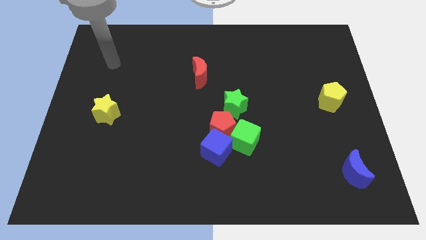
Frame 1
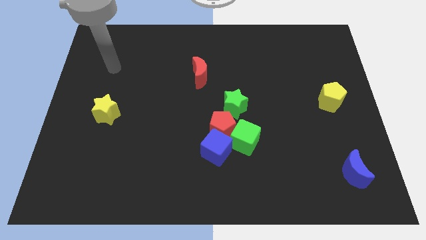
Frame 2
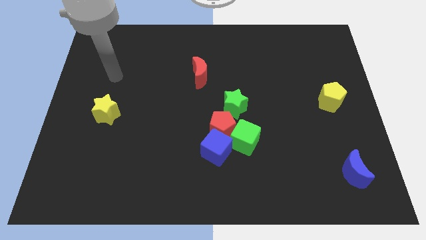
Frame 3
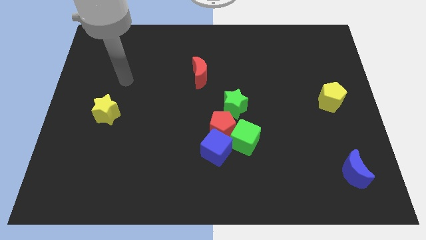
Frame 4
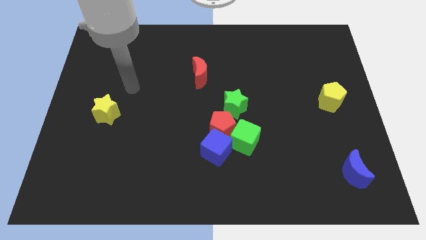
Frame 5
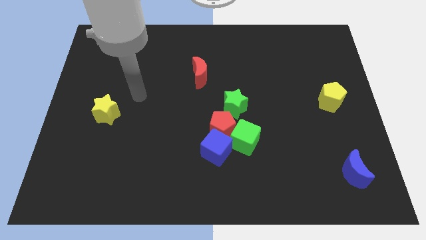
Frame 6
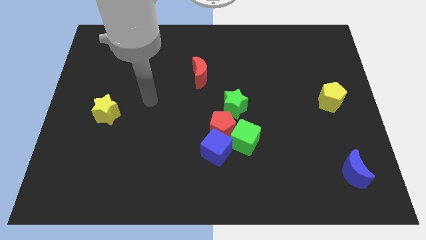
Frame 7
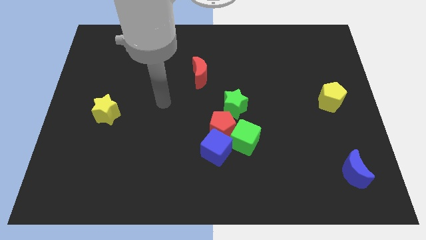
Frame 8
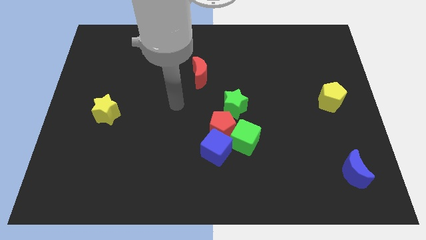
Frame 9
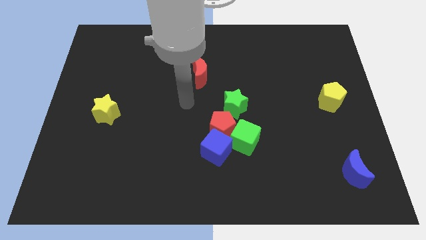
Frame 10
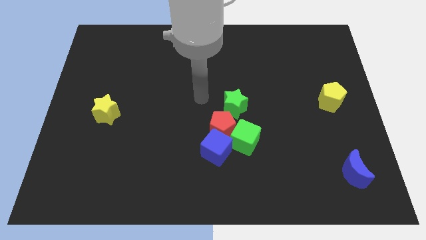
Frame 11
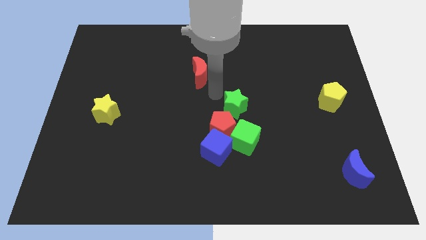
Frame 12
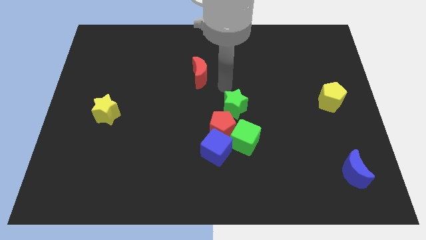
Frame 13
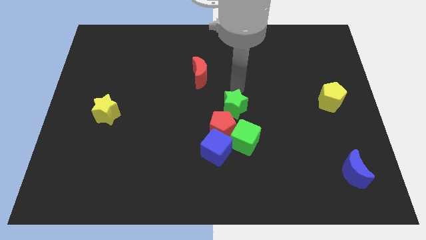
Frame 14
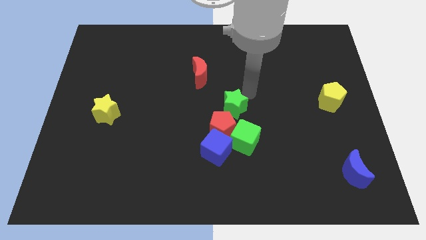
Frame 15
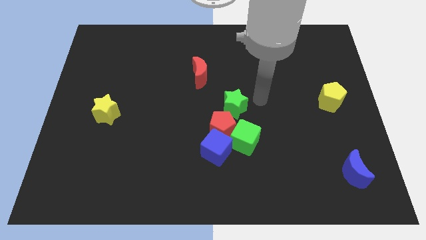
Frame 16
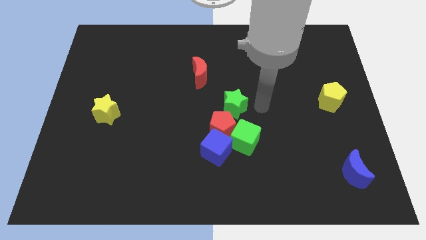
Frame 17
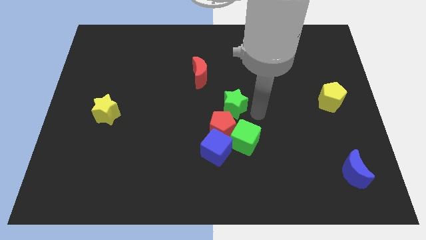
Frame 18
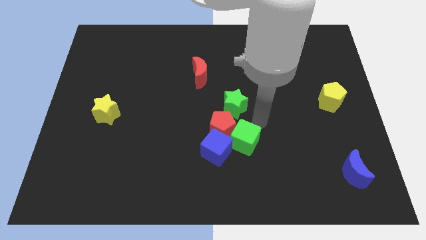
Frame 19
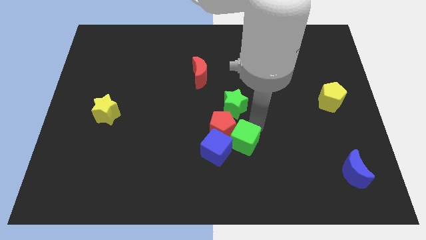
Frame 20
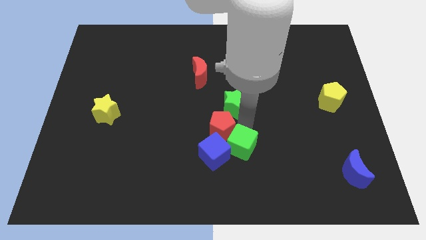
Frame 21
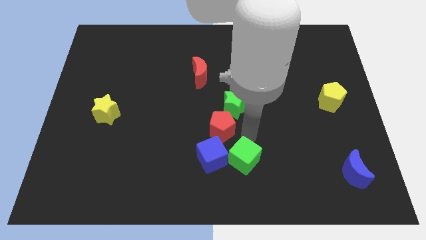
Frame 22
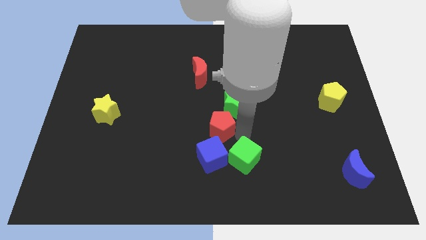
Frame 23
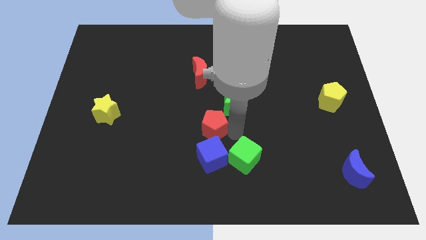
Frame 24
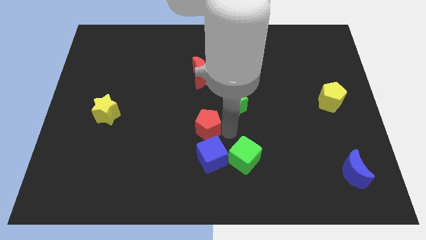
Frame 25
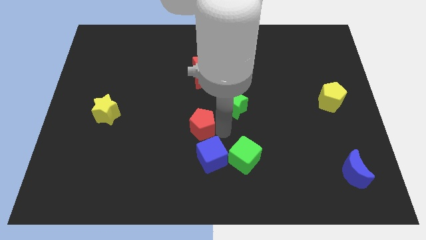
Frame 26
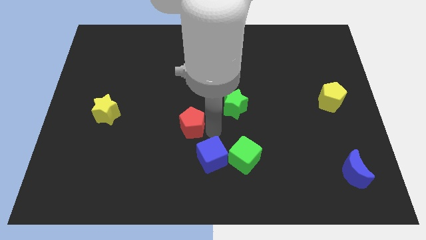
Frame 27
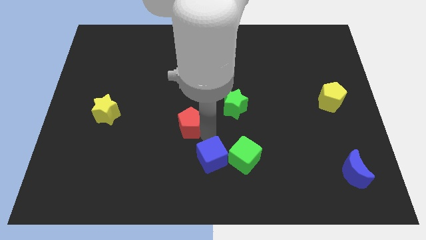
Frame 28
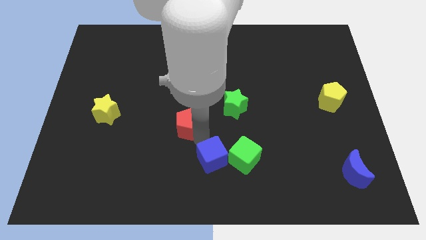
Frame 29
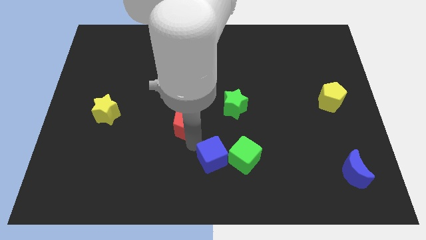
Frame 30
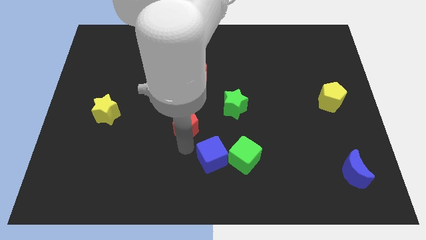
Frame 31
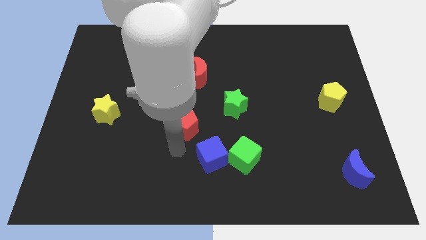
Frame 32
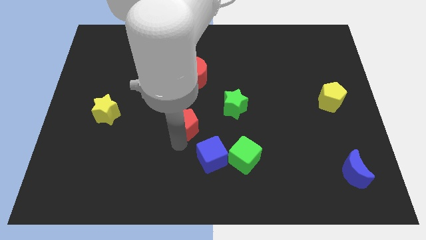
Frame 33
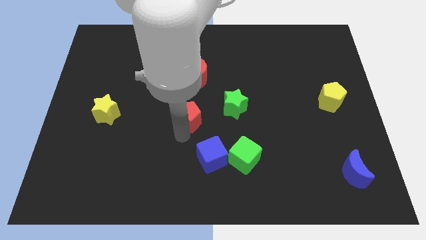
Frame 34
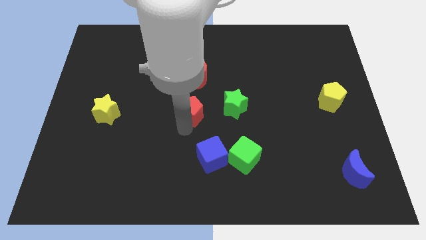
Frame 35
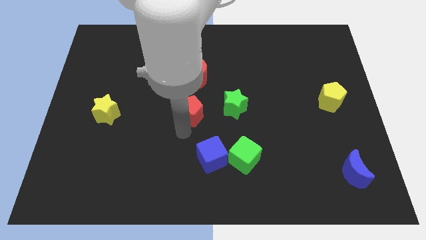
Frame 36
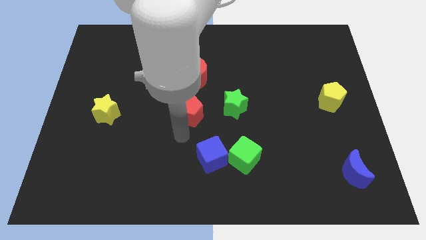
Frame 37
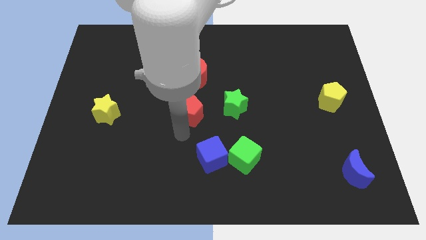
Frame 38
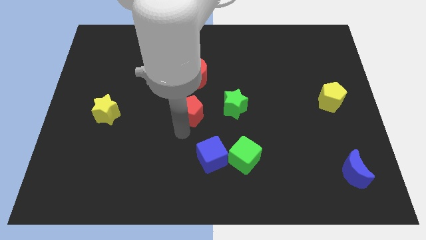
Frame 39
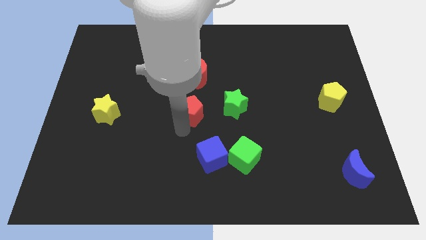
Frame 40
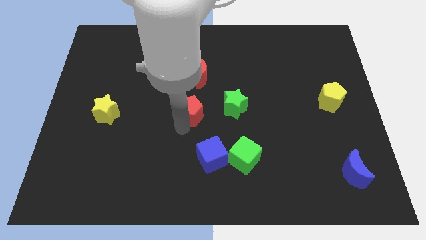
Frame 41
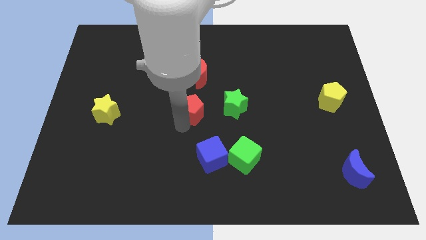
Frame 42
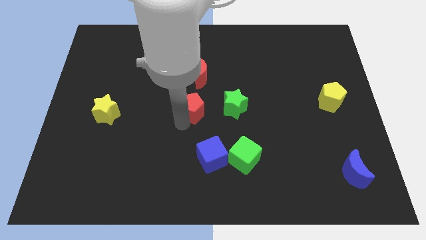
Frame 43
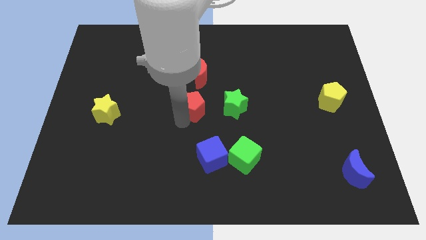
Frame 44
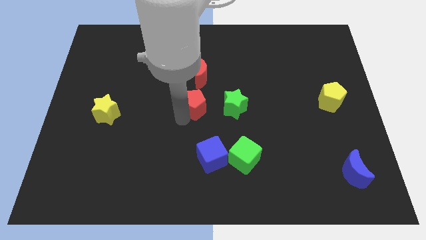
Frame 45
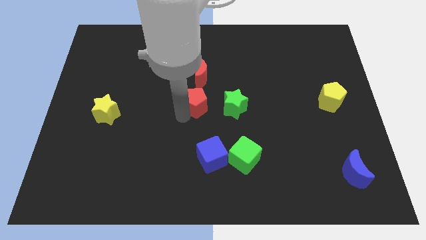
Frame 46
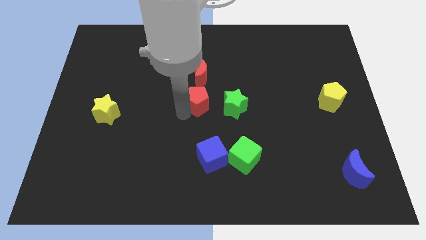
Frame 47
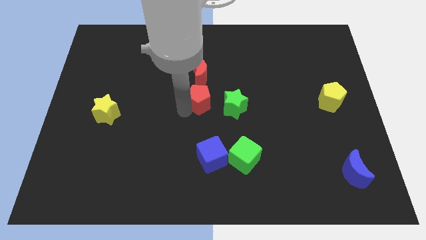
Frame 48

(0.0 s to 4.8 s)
push the red pentagon somewhat upwards

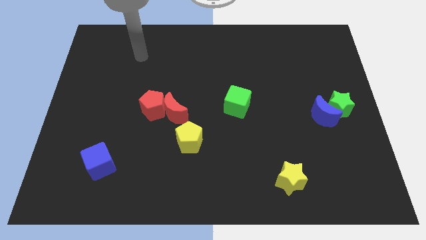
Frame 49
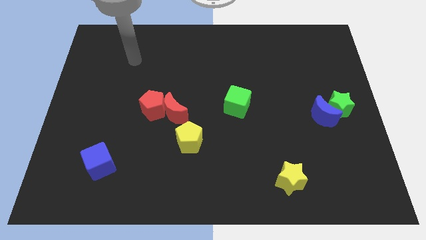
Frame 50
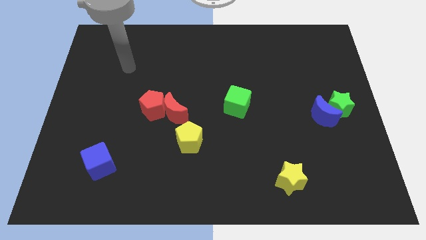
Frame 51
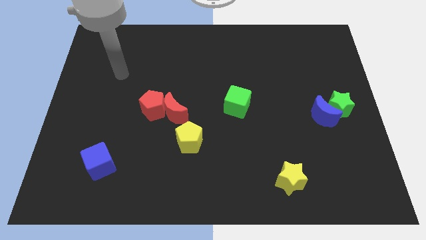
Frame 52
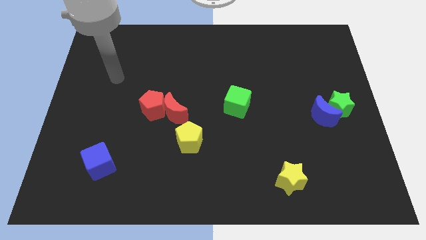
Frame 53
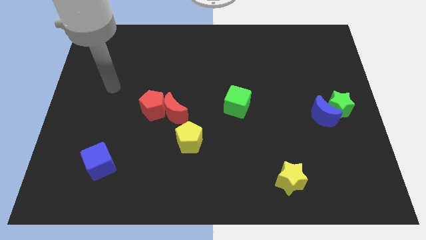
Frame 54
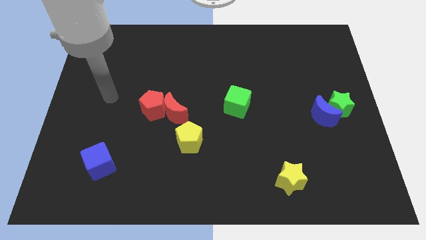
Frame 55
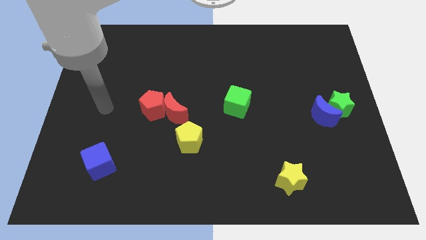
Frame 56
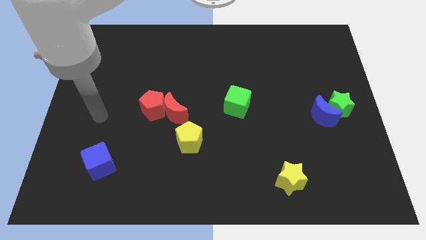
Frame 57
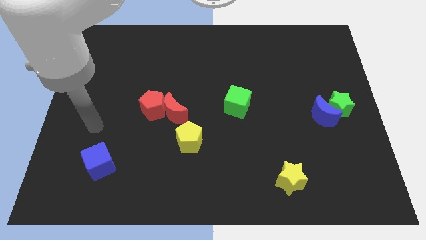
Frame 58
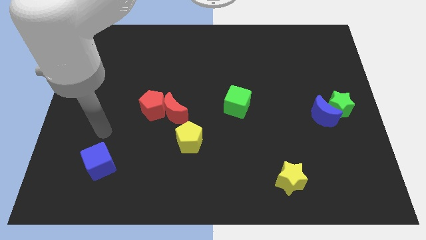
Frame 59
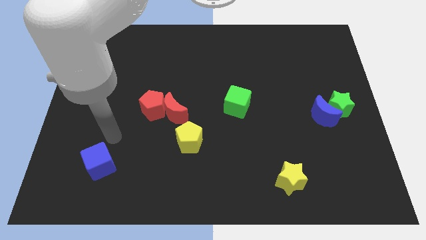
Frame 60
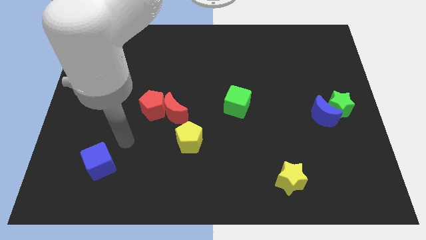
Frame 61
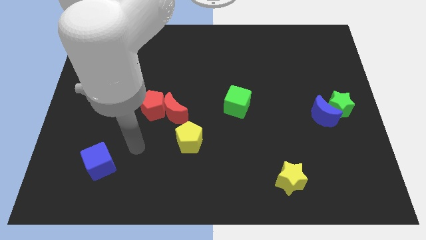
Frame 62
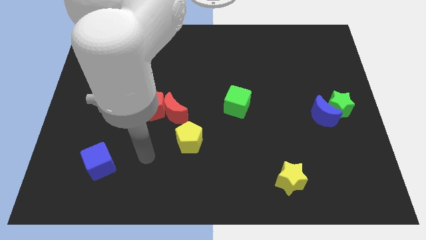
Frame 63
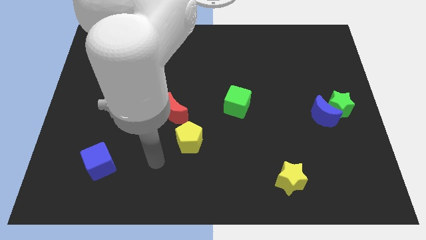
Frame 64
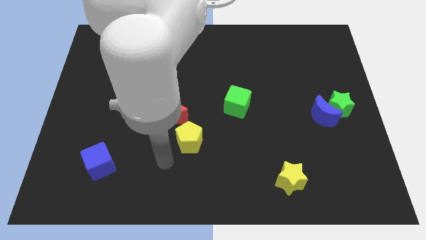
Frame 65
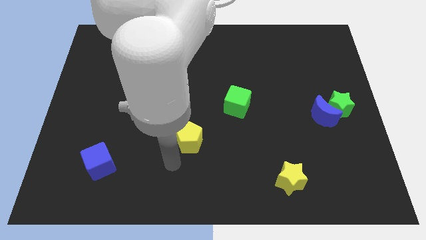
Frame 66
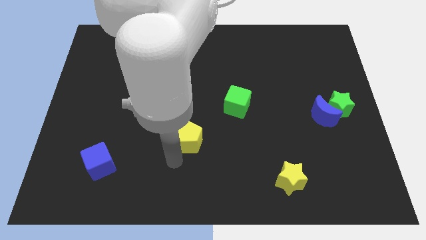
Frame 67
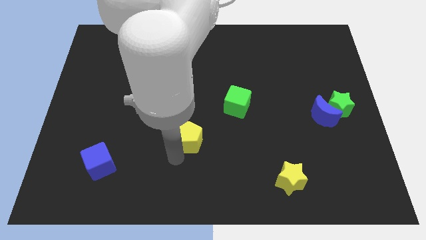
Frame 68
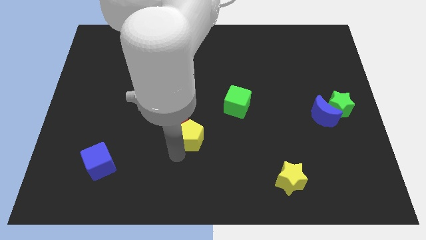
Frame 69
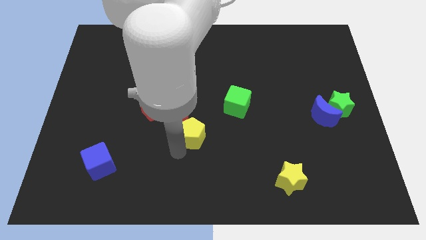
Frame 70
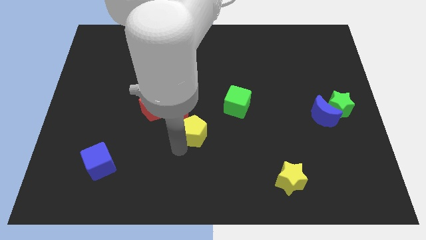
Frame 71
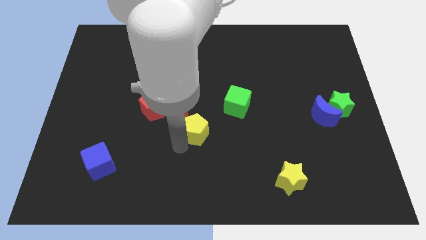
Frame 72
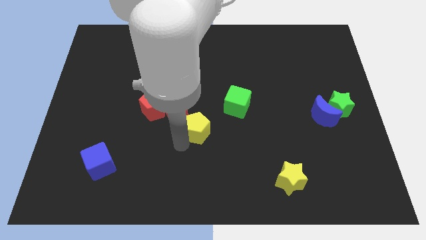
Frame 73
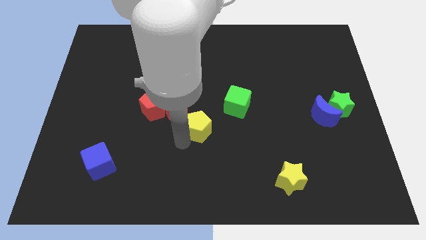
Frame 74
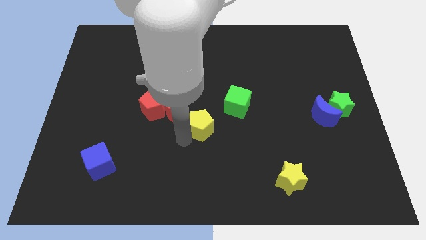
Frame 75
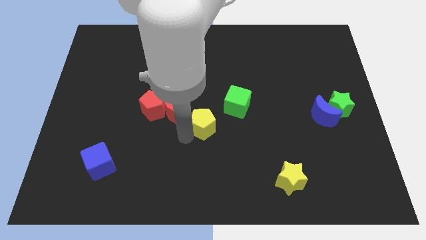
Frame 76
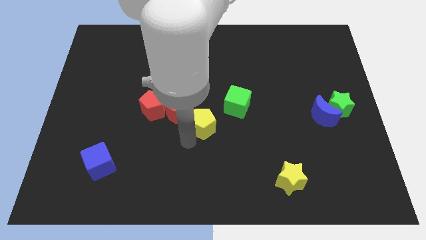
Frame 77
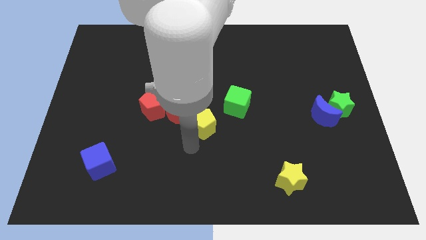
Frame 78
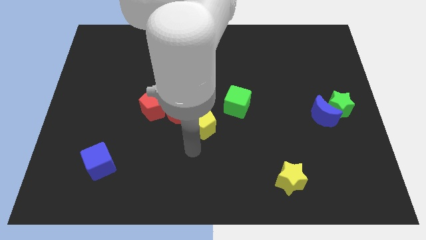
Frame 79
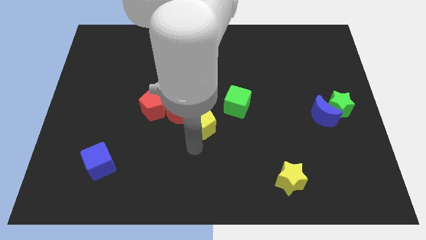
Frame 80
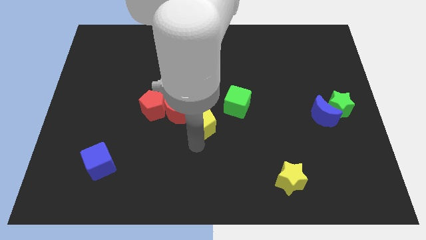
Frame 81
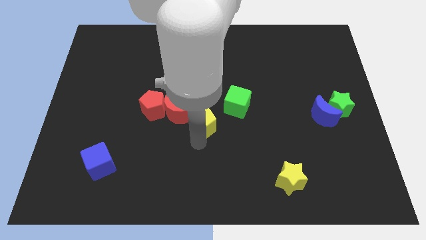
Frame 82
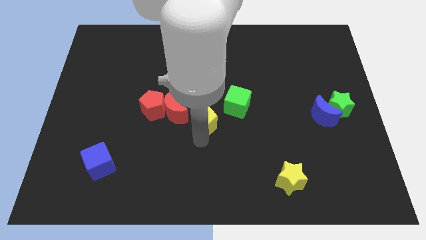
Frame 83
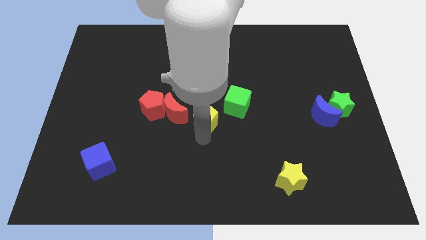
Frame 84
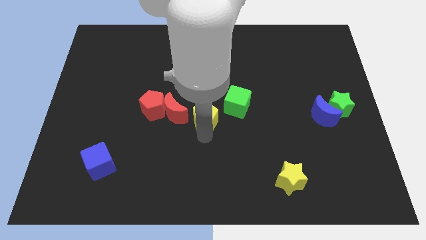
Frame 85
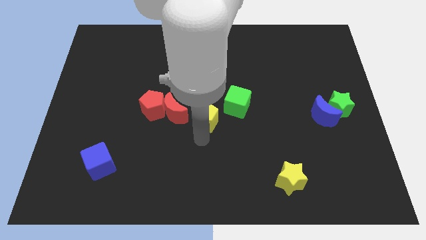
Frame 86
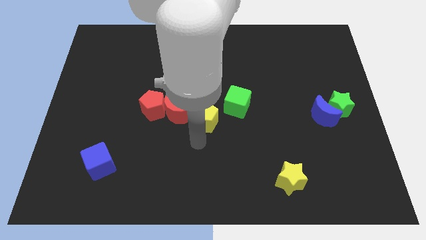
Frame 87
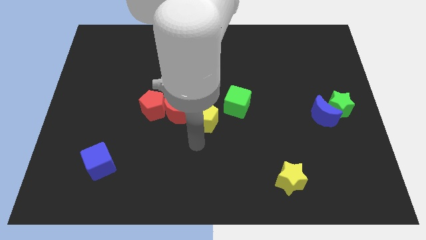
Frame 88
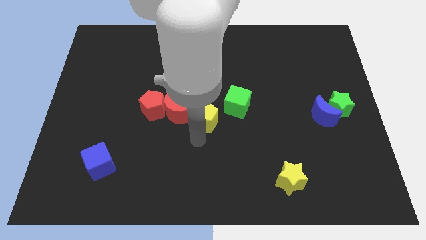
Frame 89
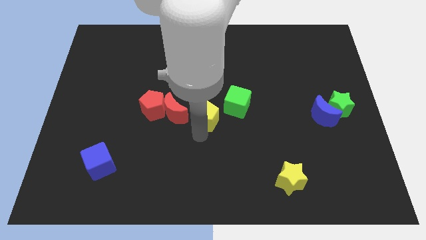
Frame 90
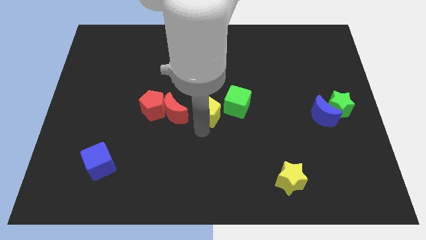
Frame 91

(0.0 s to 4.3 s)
slide the yellow pentagon diagonally up and right a little bit
